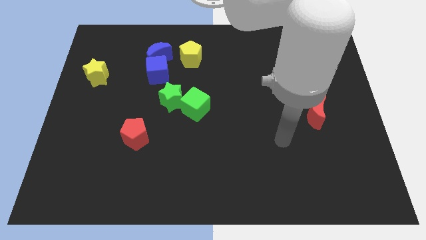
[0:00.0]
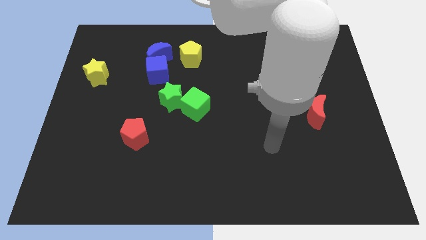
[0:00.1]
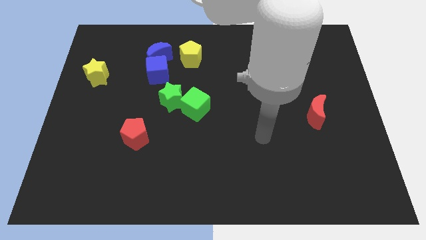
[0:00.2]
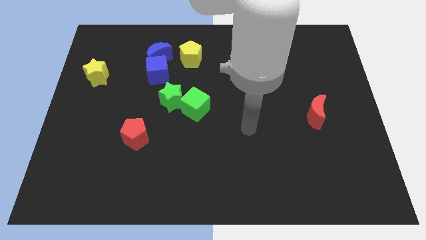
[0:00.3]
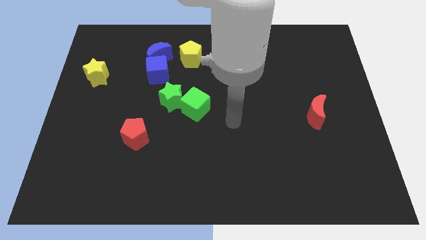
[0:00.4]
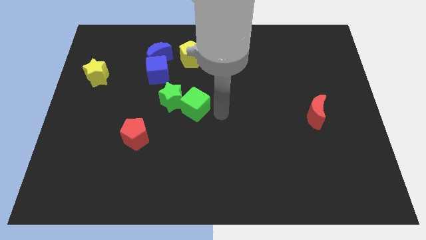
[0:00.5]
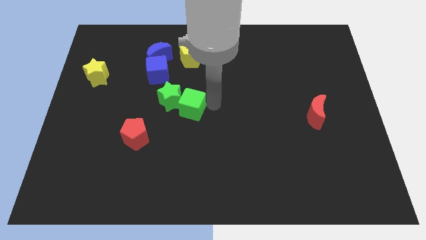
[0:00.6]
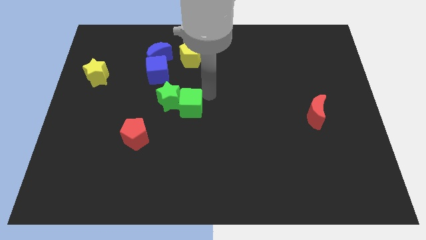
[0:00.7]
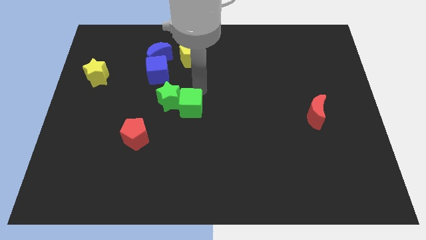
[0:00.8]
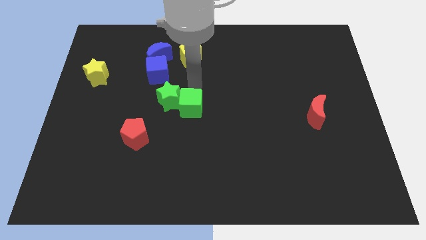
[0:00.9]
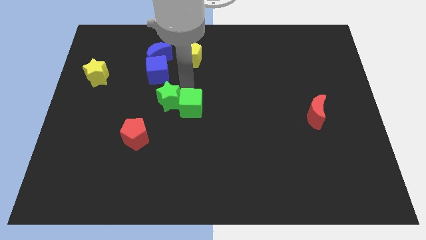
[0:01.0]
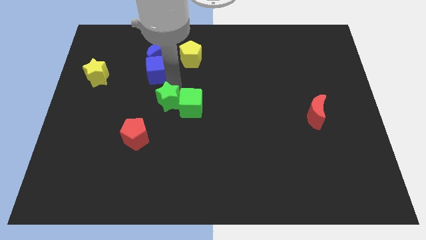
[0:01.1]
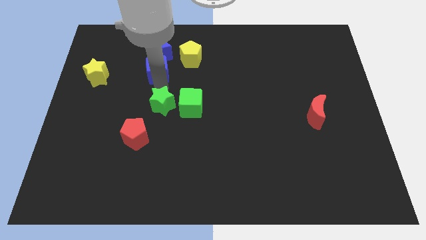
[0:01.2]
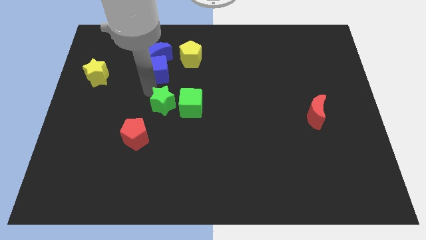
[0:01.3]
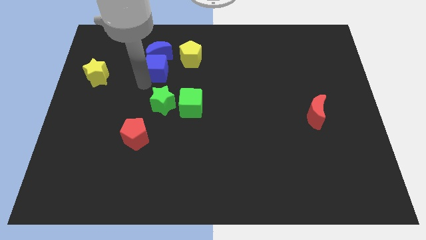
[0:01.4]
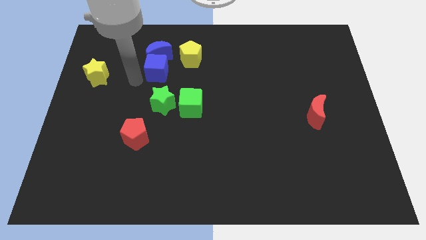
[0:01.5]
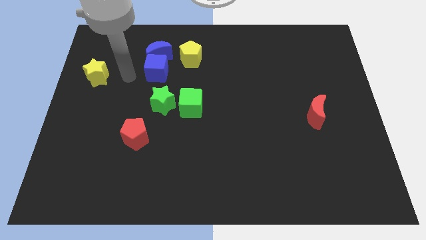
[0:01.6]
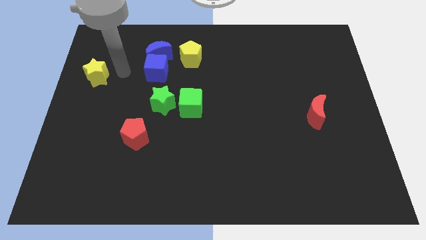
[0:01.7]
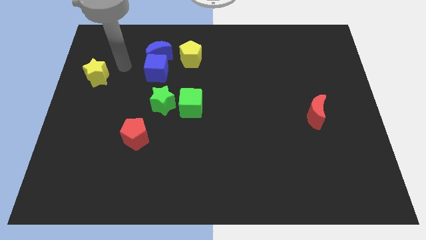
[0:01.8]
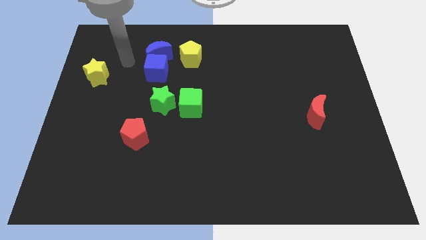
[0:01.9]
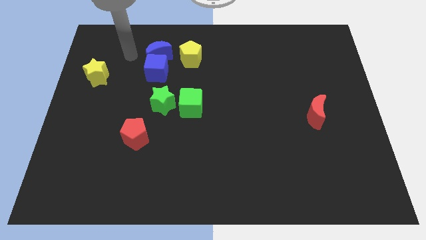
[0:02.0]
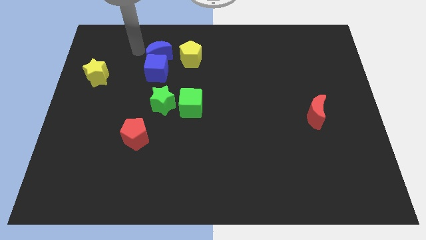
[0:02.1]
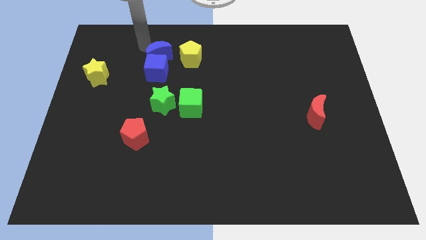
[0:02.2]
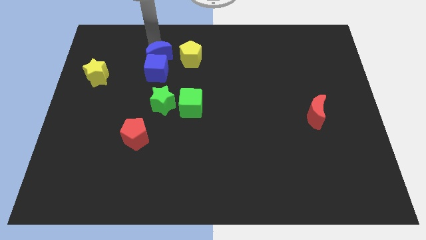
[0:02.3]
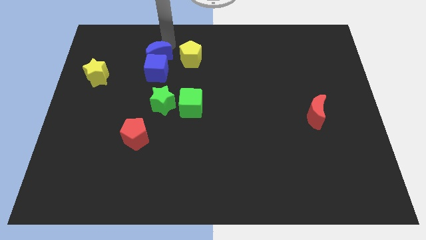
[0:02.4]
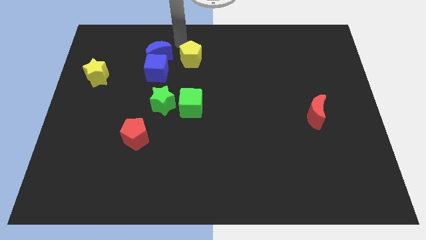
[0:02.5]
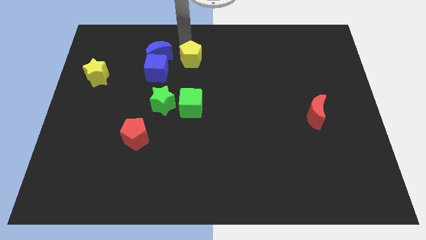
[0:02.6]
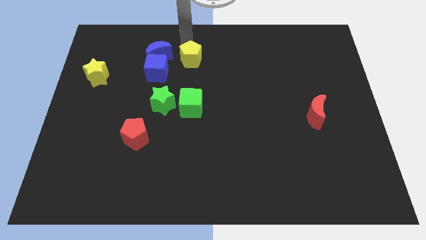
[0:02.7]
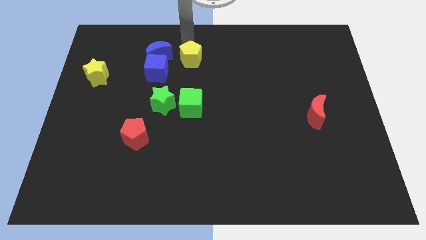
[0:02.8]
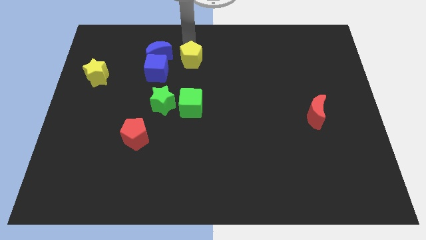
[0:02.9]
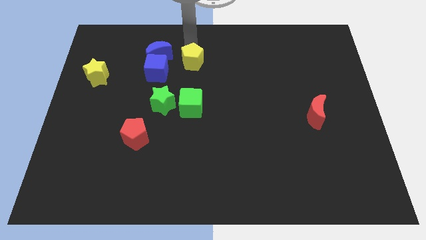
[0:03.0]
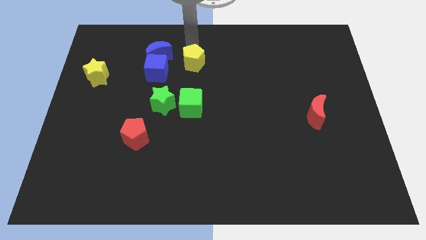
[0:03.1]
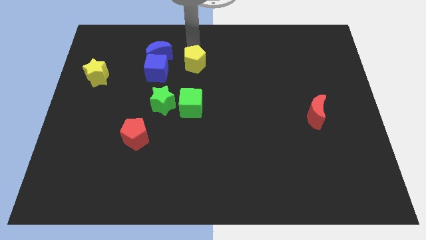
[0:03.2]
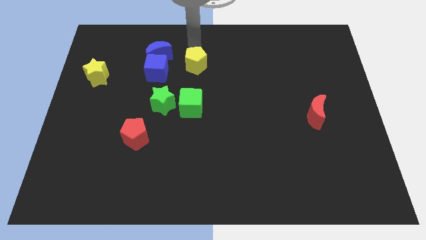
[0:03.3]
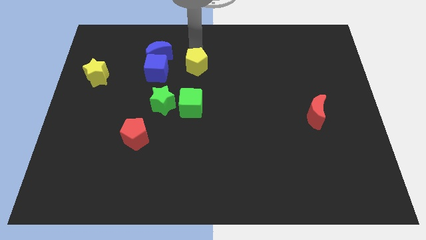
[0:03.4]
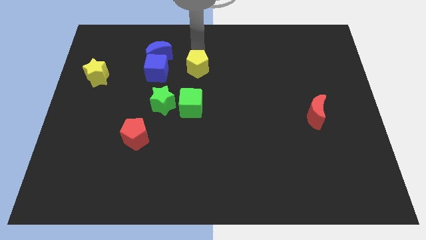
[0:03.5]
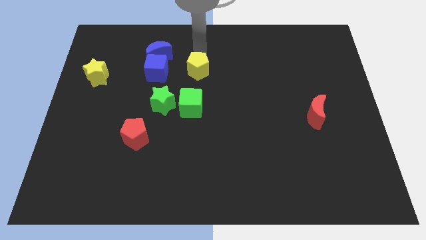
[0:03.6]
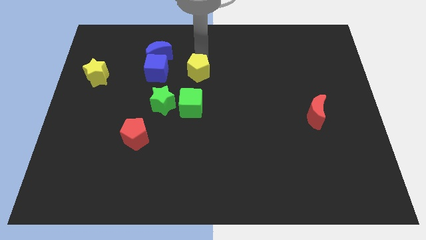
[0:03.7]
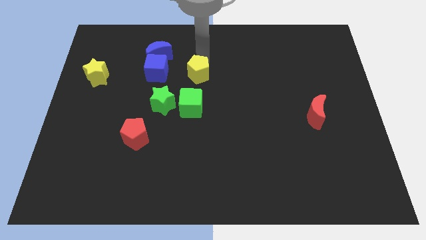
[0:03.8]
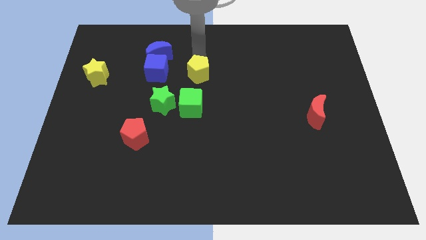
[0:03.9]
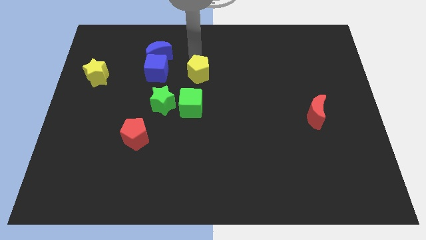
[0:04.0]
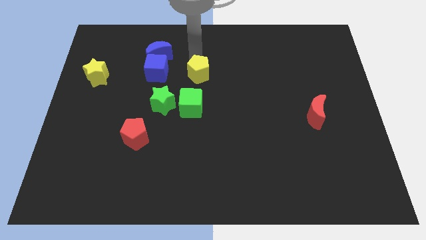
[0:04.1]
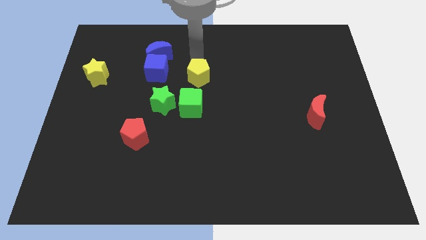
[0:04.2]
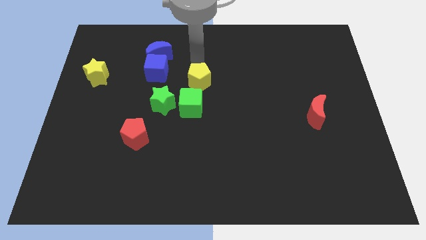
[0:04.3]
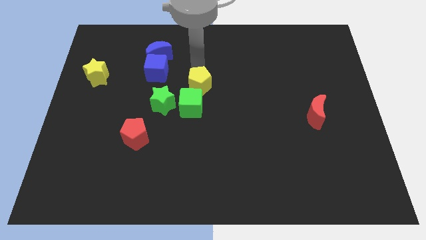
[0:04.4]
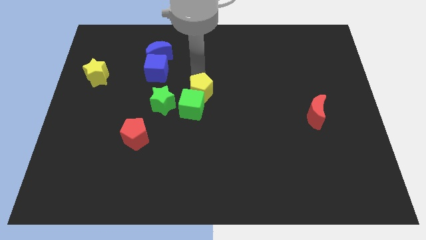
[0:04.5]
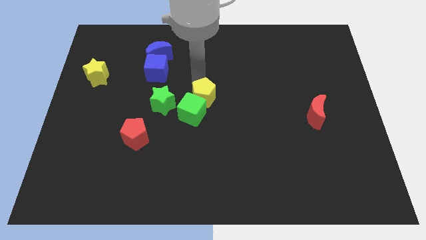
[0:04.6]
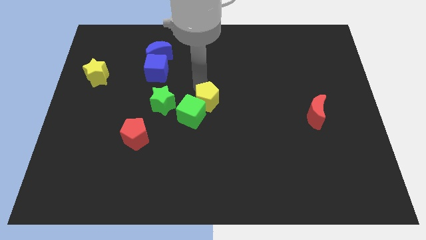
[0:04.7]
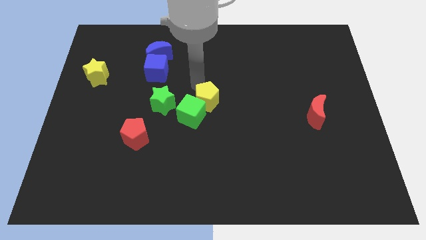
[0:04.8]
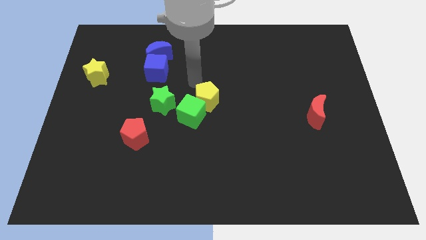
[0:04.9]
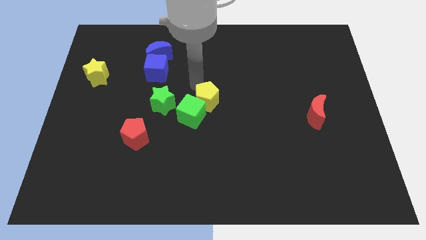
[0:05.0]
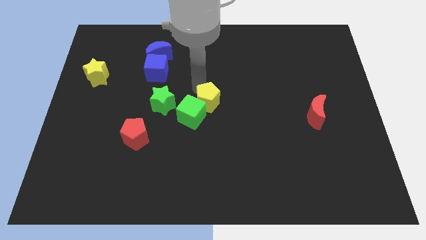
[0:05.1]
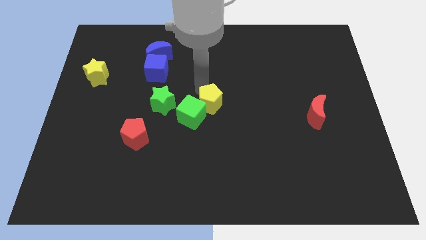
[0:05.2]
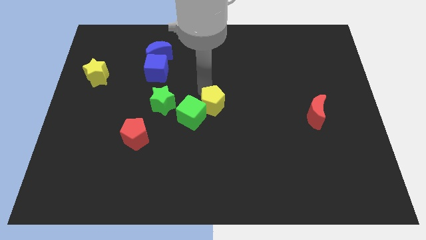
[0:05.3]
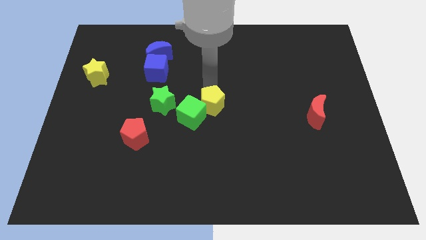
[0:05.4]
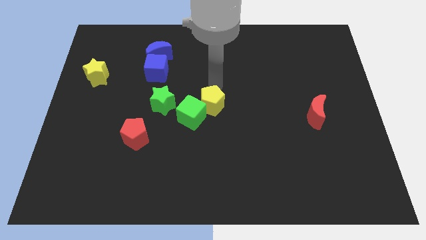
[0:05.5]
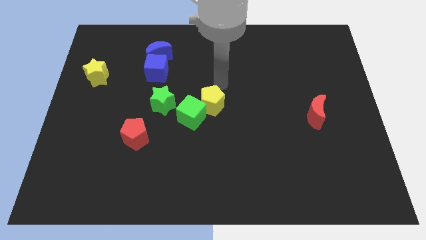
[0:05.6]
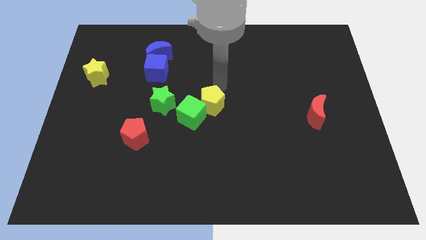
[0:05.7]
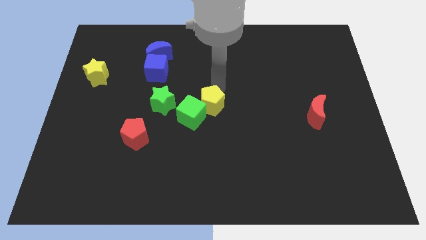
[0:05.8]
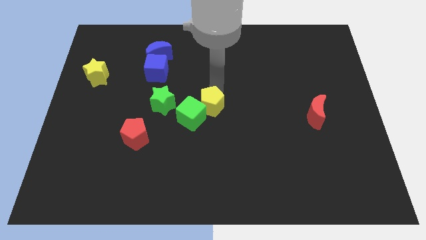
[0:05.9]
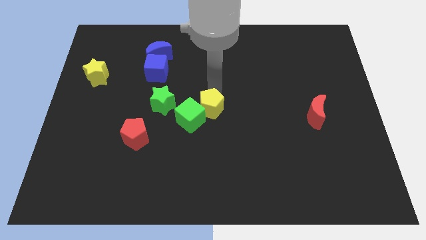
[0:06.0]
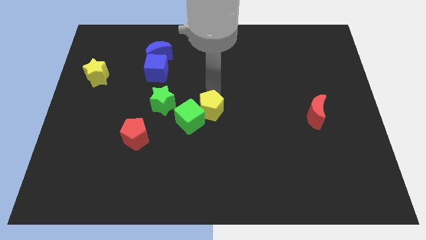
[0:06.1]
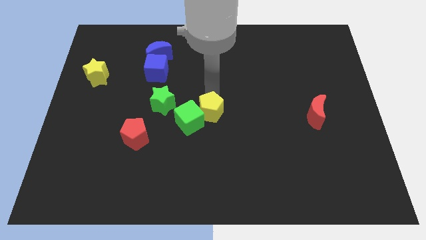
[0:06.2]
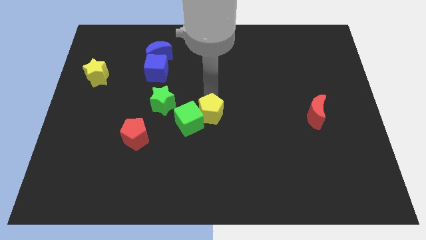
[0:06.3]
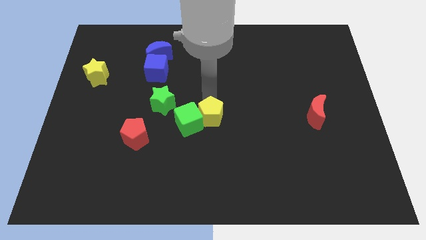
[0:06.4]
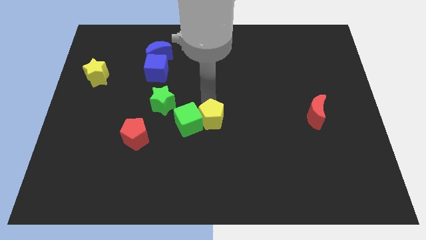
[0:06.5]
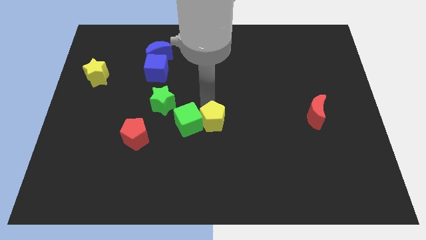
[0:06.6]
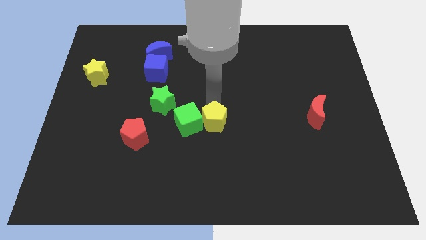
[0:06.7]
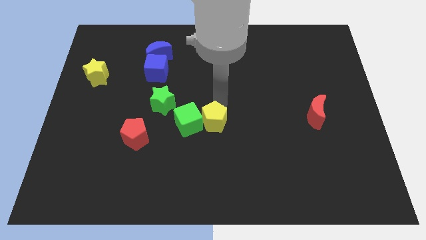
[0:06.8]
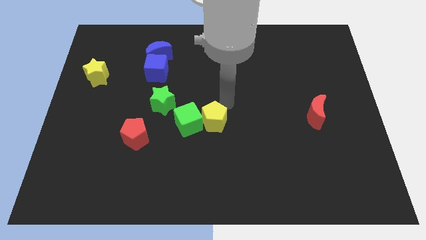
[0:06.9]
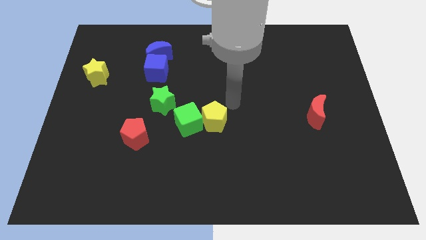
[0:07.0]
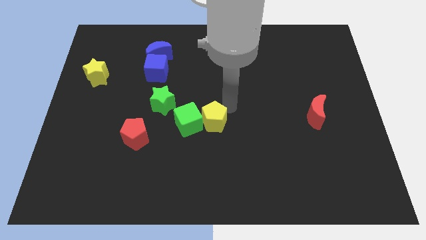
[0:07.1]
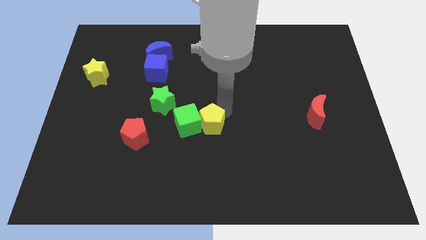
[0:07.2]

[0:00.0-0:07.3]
push the yellow pentagon downwards

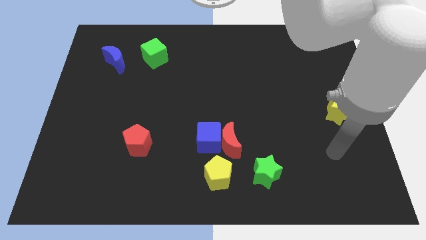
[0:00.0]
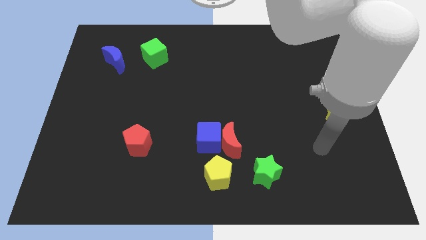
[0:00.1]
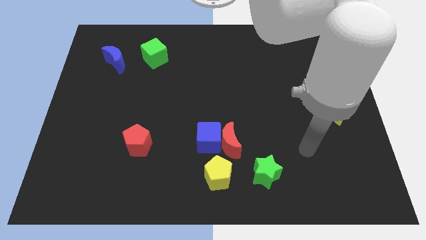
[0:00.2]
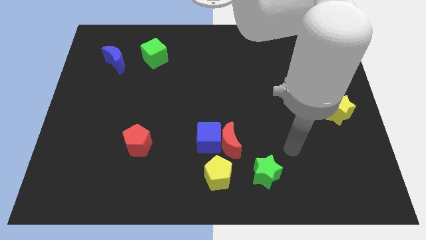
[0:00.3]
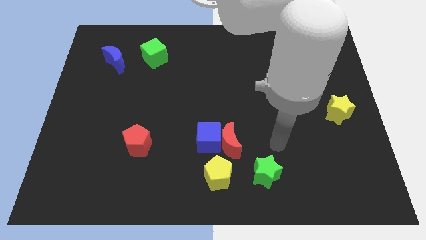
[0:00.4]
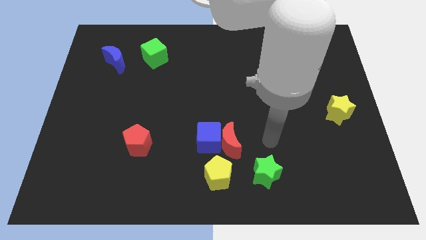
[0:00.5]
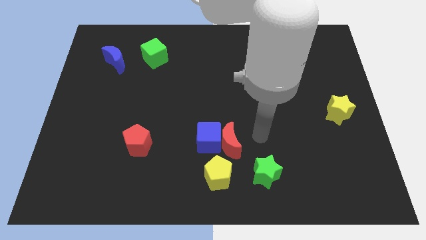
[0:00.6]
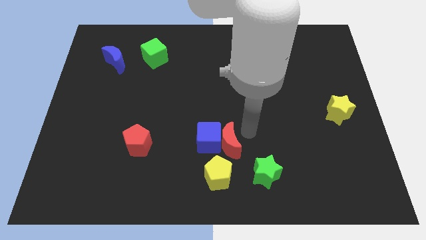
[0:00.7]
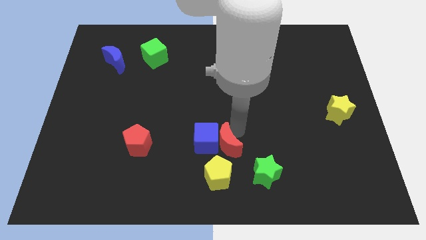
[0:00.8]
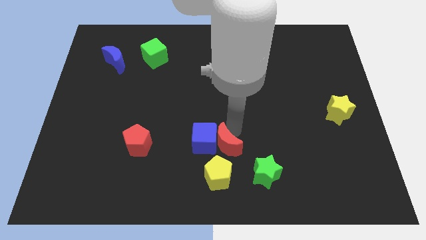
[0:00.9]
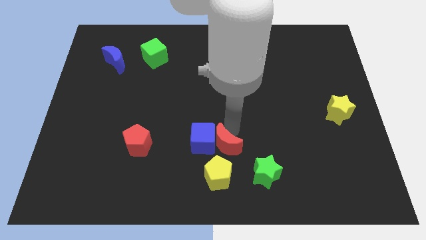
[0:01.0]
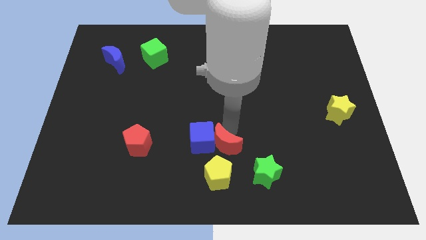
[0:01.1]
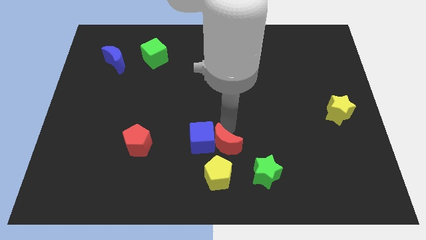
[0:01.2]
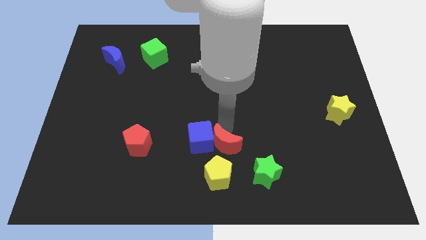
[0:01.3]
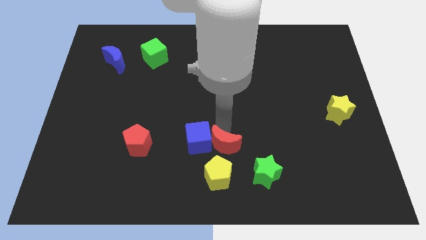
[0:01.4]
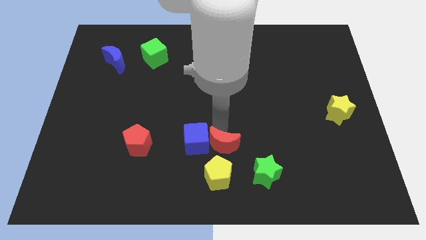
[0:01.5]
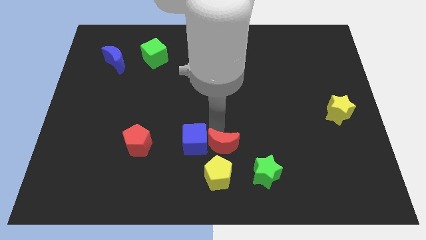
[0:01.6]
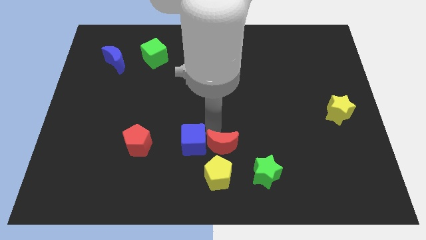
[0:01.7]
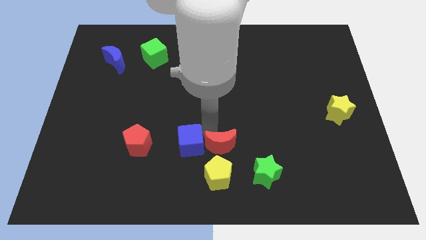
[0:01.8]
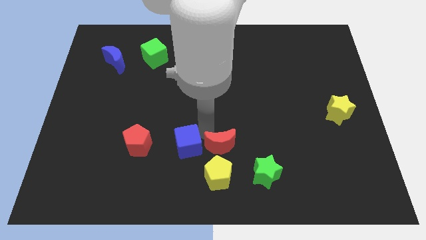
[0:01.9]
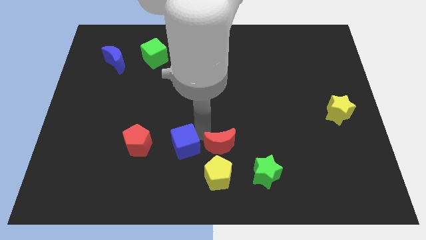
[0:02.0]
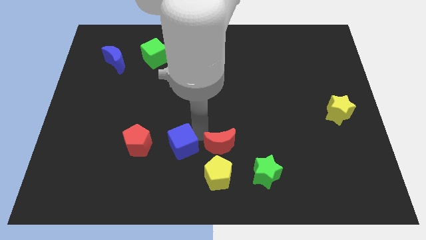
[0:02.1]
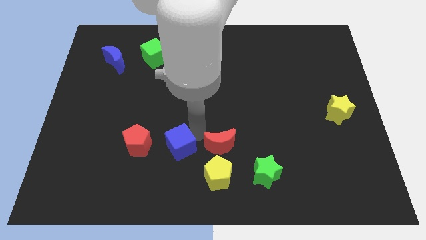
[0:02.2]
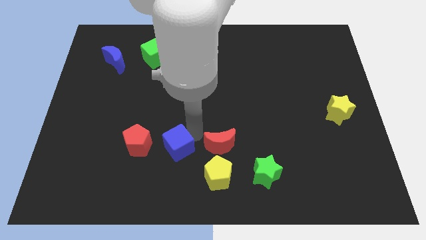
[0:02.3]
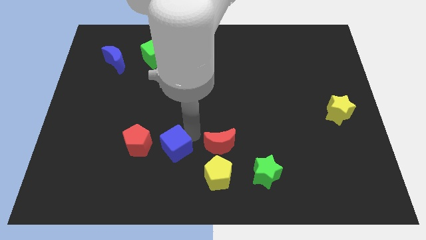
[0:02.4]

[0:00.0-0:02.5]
move the blue cube left somewhat
